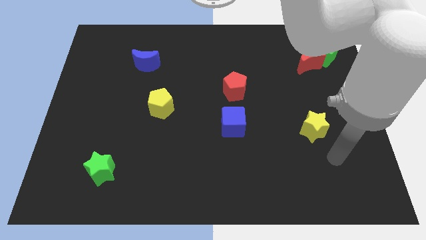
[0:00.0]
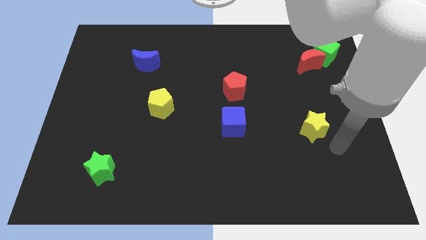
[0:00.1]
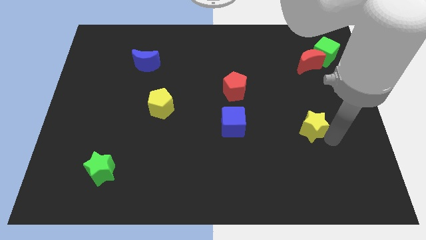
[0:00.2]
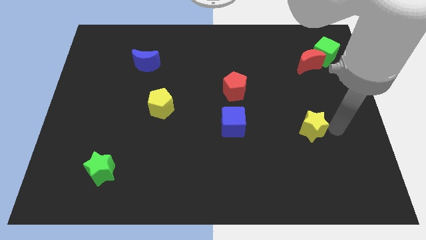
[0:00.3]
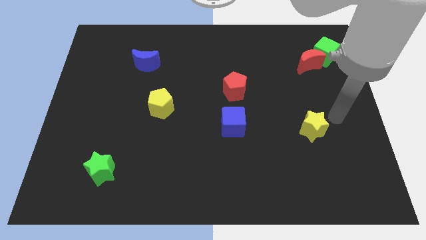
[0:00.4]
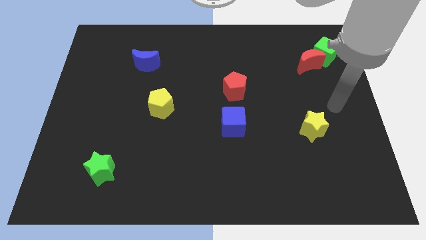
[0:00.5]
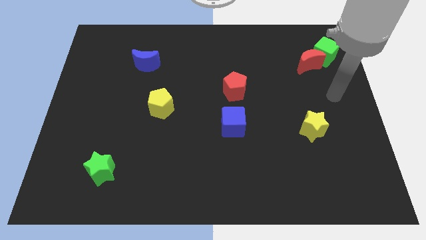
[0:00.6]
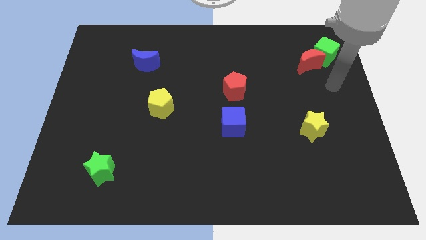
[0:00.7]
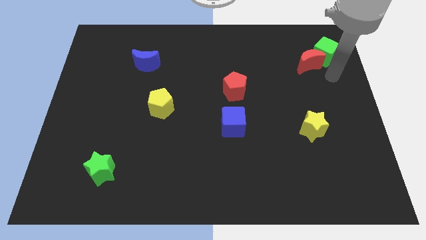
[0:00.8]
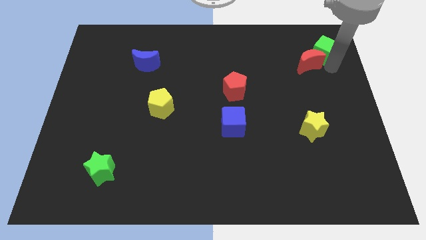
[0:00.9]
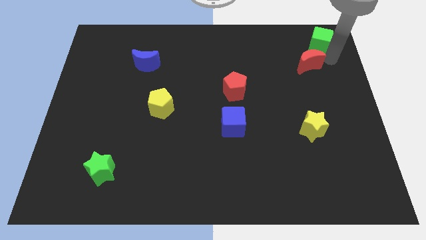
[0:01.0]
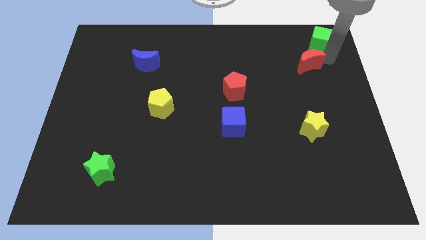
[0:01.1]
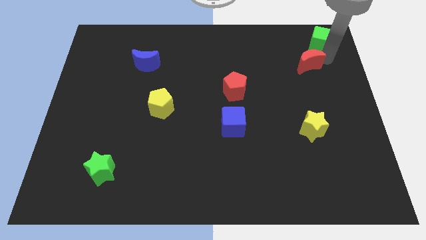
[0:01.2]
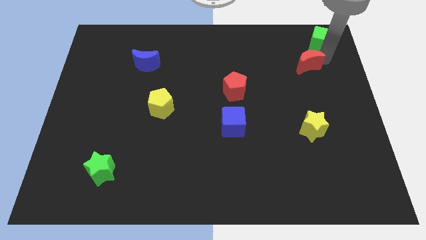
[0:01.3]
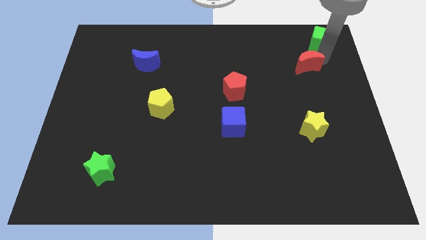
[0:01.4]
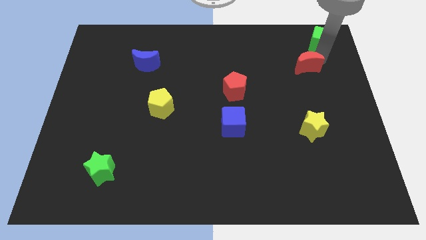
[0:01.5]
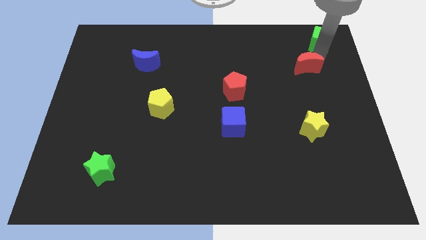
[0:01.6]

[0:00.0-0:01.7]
move the red moon away from the green cube

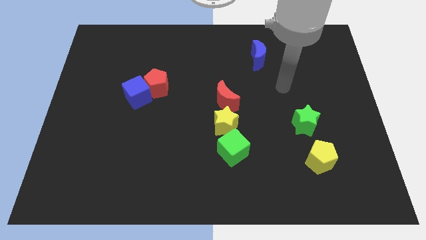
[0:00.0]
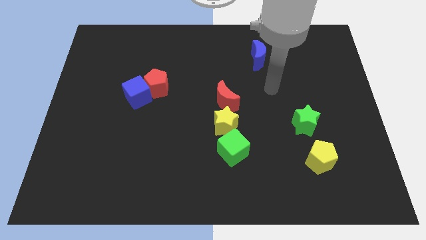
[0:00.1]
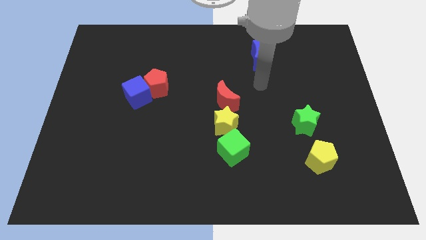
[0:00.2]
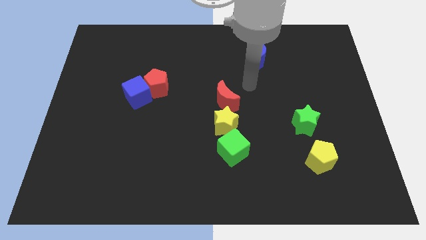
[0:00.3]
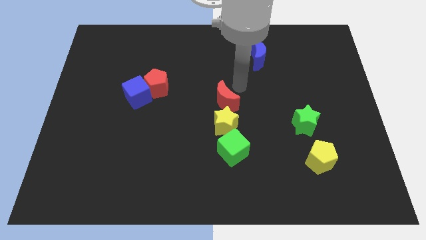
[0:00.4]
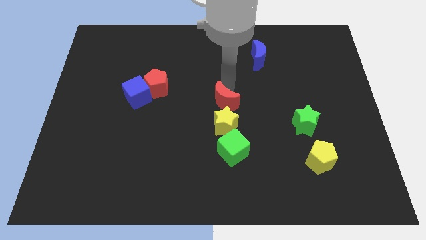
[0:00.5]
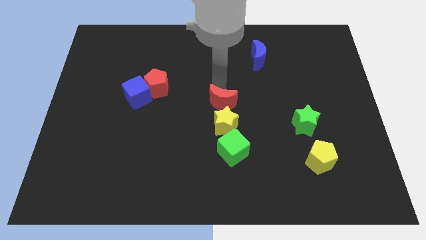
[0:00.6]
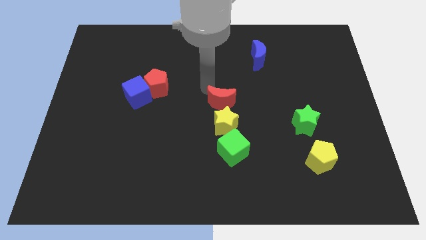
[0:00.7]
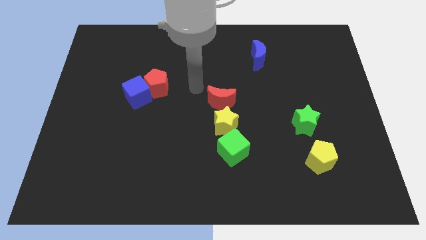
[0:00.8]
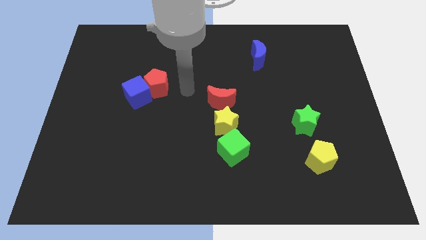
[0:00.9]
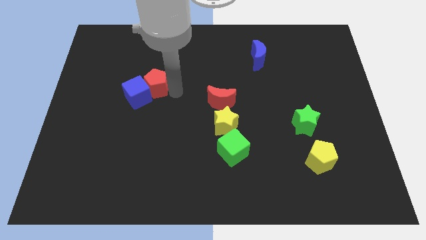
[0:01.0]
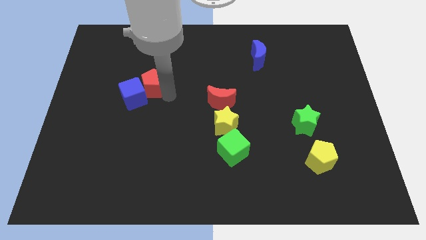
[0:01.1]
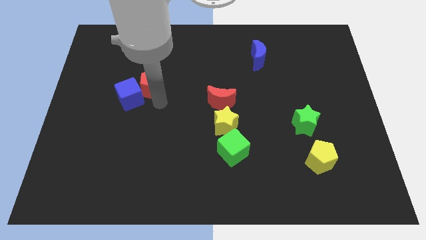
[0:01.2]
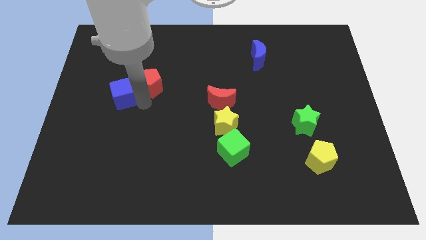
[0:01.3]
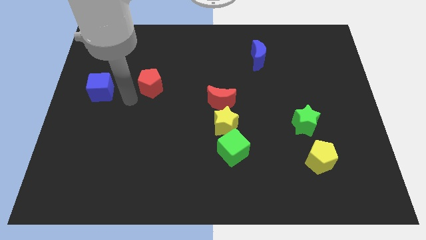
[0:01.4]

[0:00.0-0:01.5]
separate the red pentagon from the blue cube

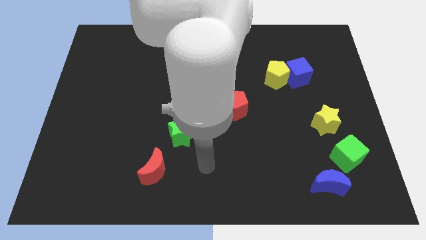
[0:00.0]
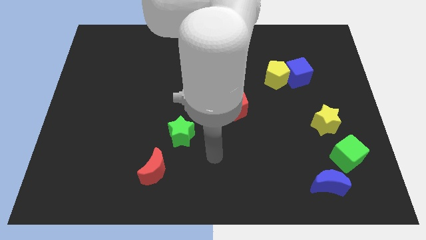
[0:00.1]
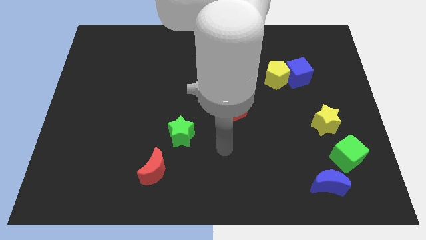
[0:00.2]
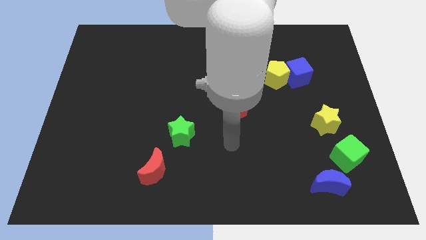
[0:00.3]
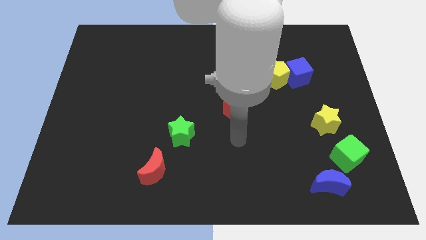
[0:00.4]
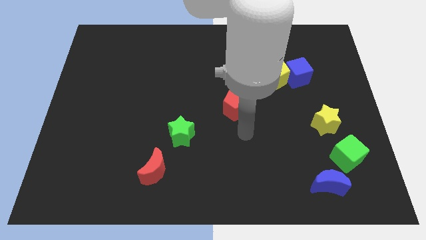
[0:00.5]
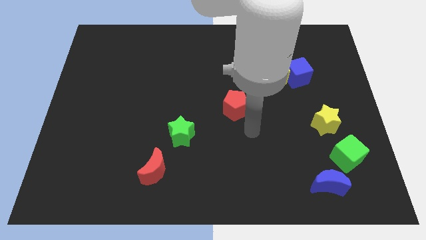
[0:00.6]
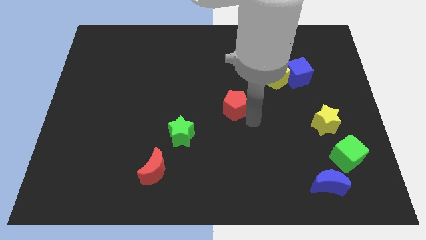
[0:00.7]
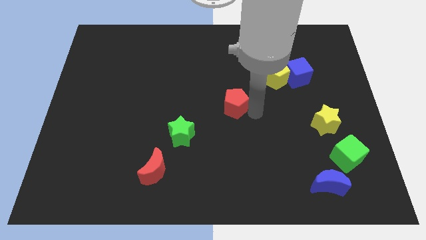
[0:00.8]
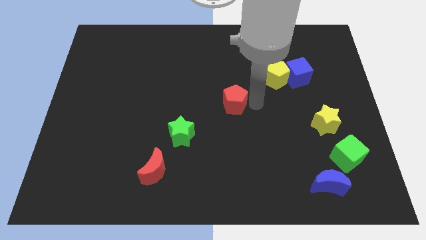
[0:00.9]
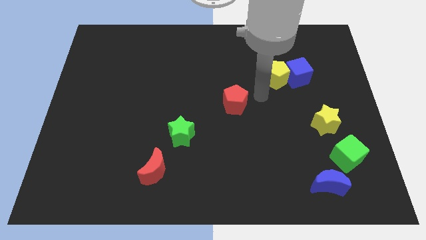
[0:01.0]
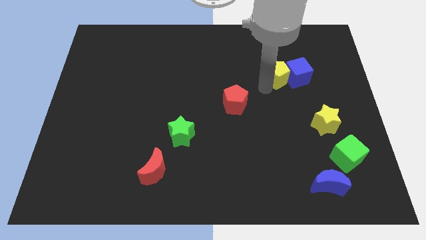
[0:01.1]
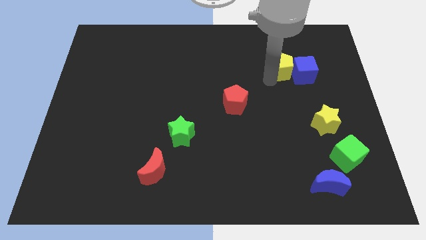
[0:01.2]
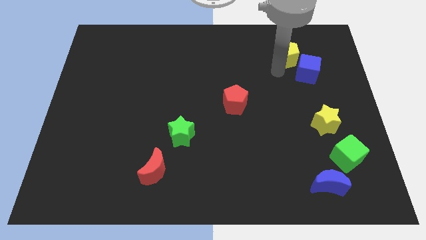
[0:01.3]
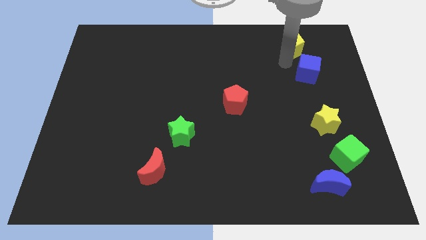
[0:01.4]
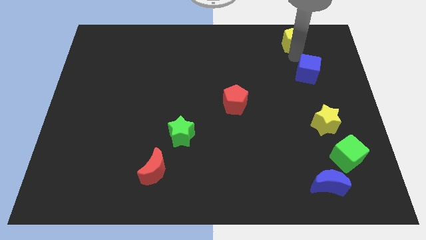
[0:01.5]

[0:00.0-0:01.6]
pull the blue cube apart from the yellow pentagon

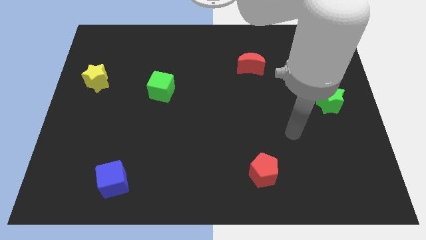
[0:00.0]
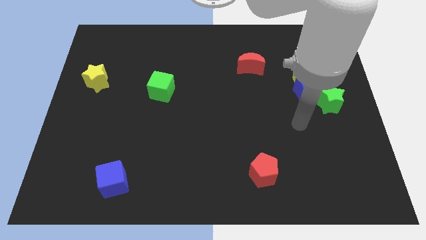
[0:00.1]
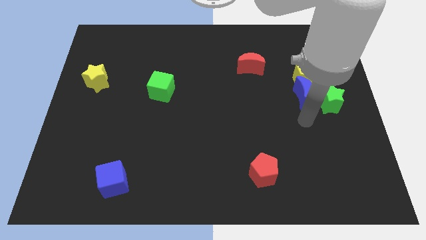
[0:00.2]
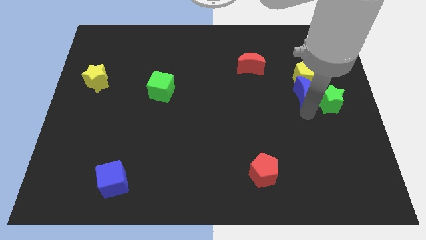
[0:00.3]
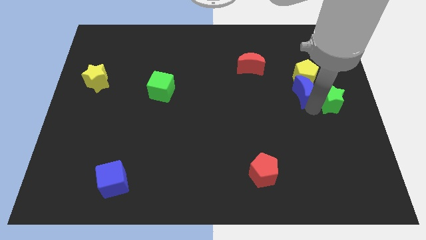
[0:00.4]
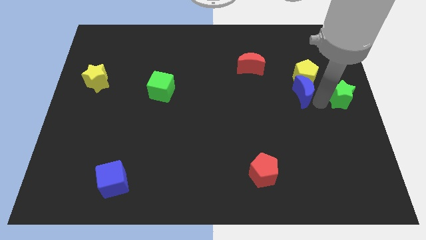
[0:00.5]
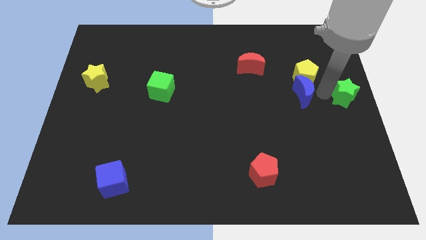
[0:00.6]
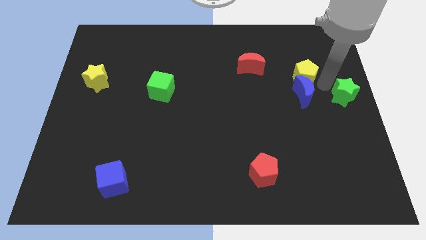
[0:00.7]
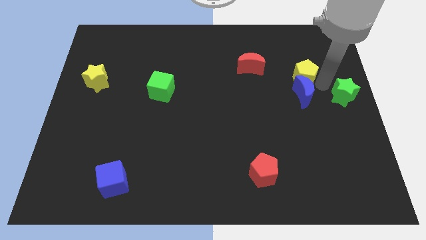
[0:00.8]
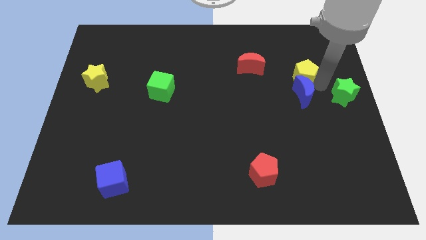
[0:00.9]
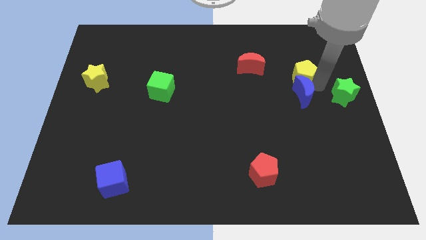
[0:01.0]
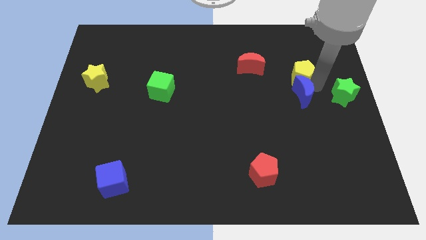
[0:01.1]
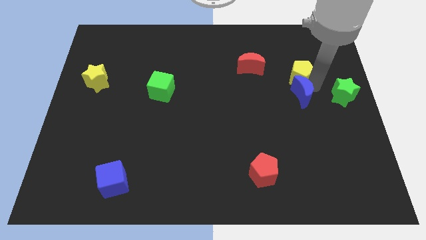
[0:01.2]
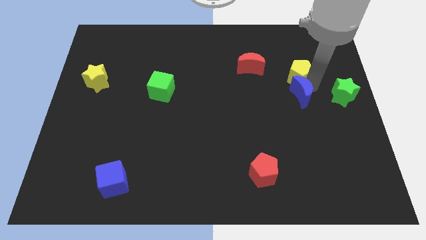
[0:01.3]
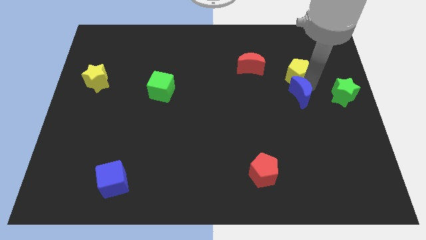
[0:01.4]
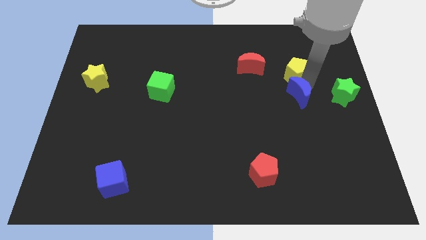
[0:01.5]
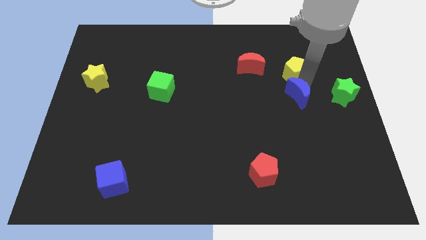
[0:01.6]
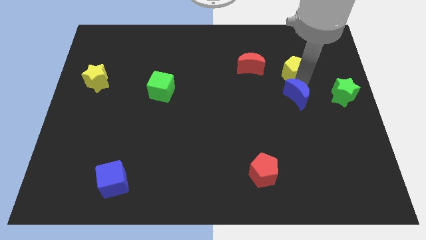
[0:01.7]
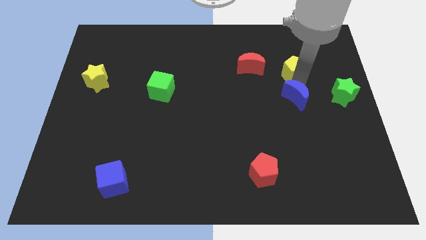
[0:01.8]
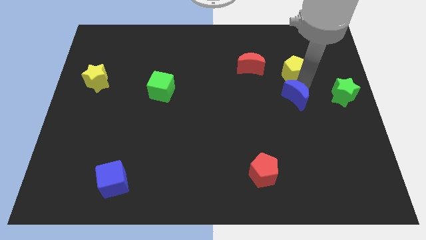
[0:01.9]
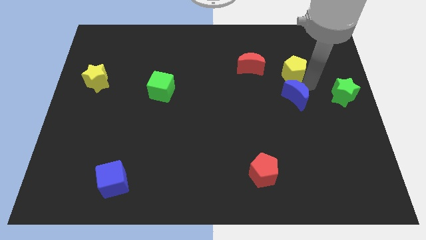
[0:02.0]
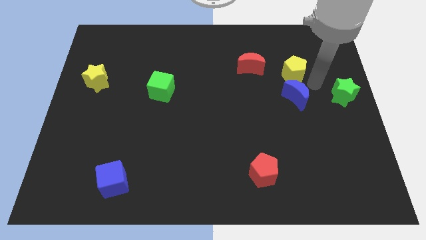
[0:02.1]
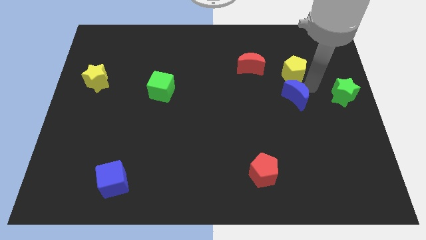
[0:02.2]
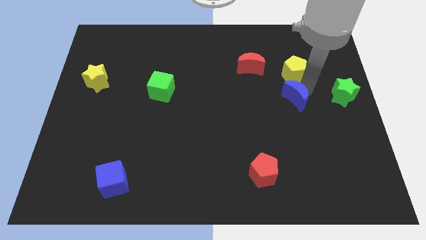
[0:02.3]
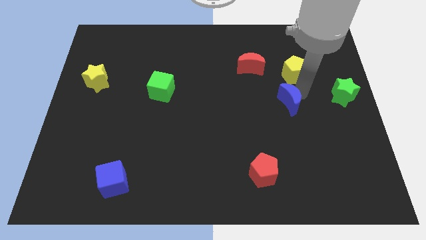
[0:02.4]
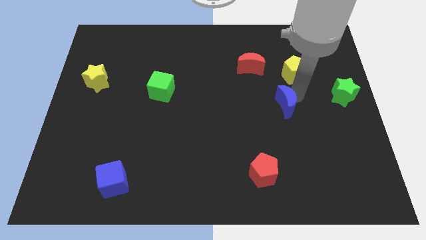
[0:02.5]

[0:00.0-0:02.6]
move the blue moon away from the yellow pentagon and green star

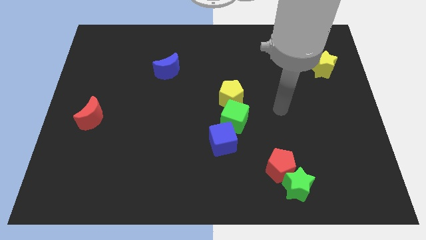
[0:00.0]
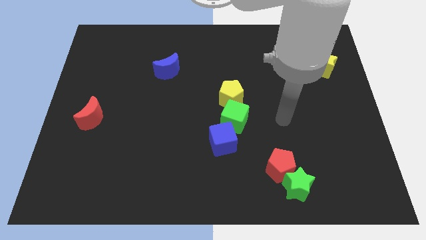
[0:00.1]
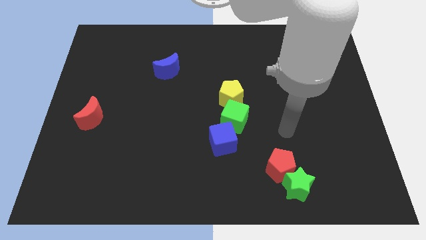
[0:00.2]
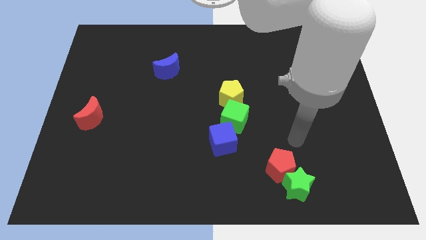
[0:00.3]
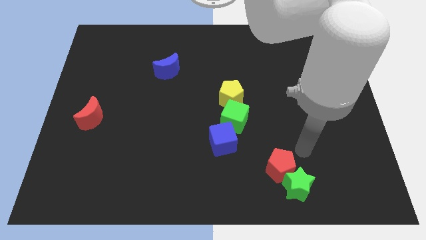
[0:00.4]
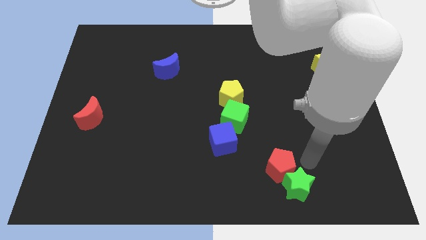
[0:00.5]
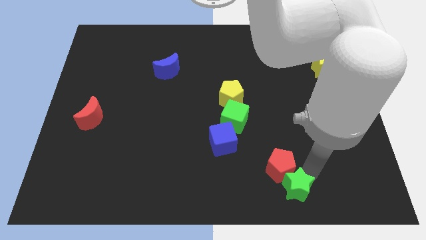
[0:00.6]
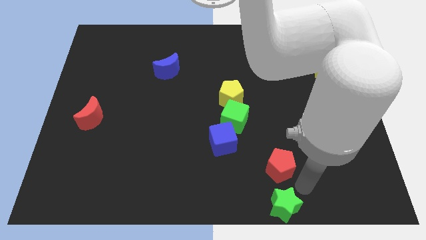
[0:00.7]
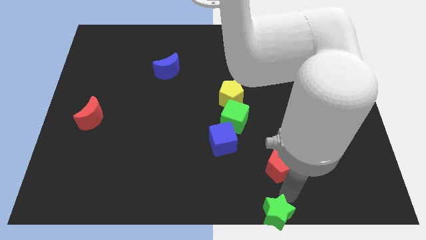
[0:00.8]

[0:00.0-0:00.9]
pull the red pentagon apart from the green star

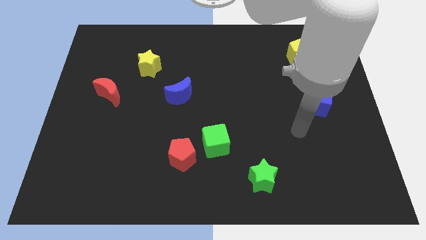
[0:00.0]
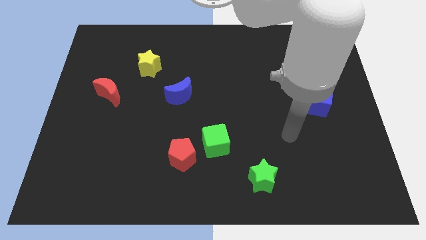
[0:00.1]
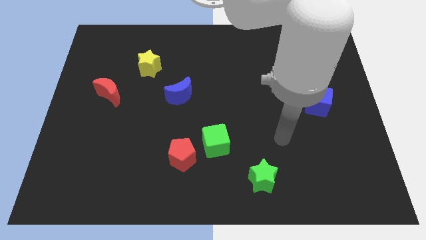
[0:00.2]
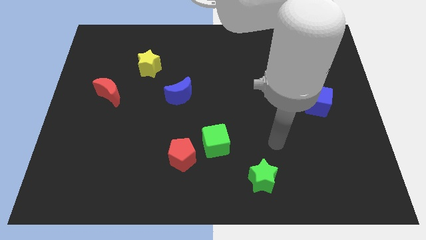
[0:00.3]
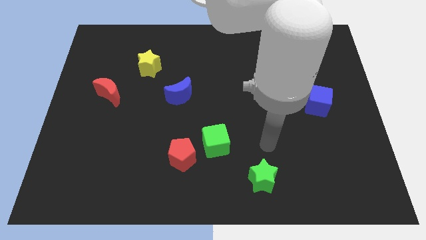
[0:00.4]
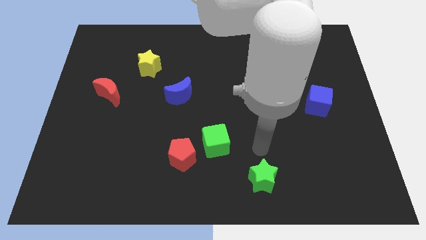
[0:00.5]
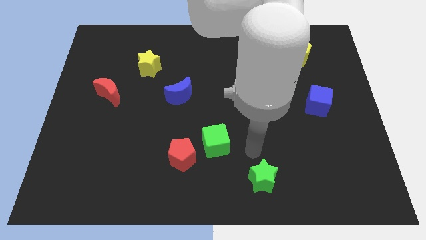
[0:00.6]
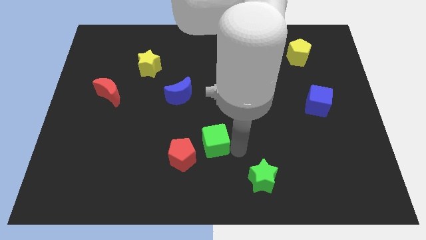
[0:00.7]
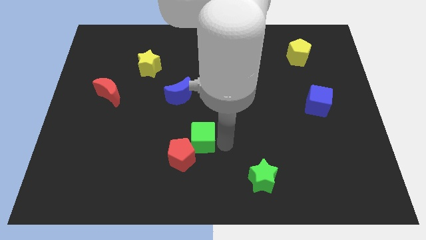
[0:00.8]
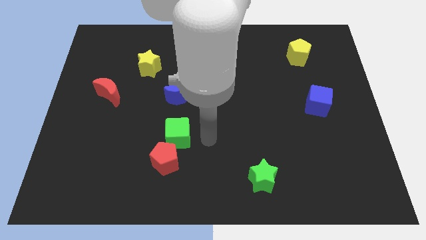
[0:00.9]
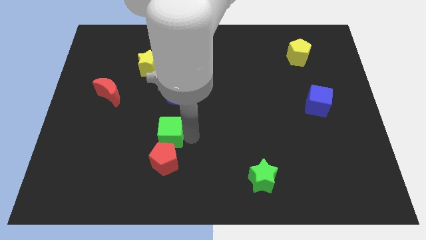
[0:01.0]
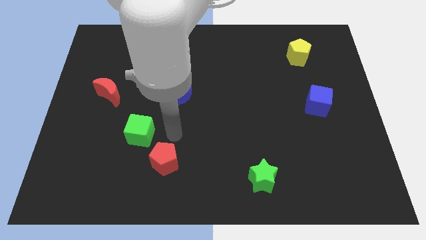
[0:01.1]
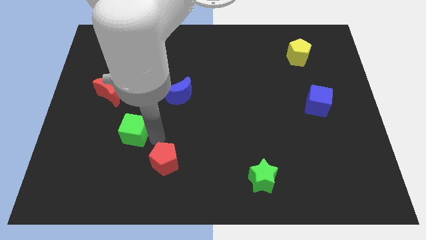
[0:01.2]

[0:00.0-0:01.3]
pull the red pentagon apart from the green cube
